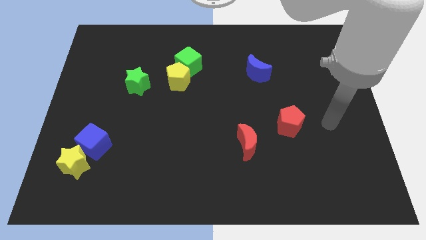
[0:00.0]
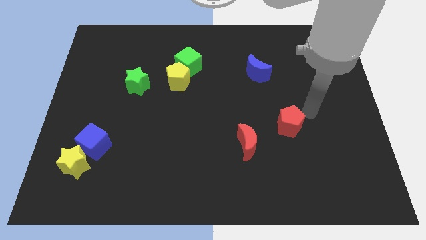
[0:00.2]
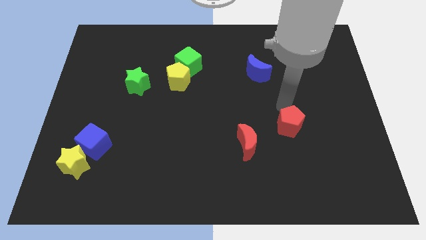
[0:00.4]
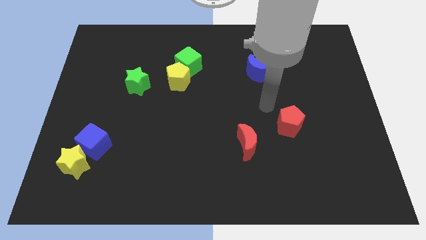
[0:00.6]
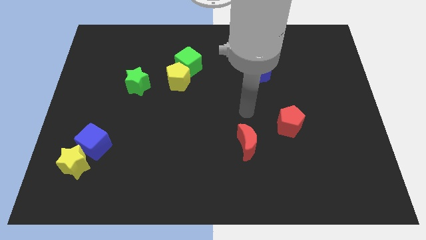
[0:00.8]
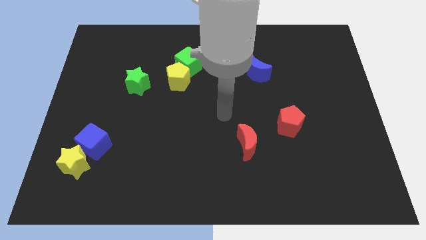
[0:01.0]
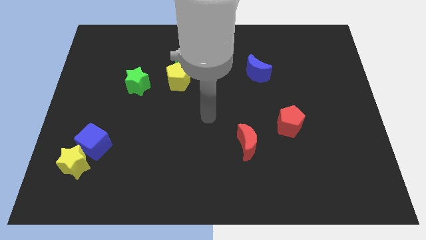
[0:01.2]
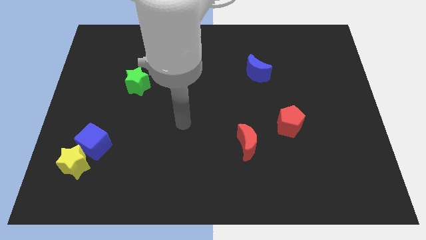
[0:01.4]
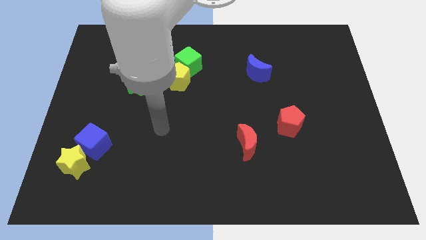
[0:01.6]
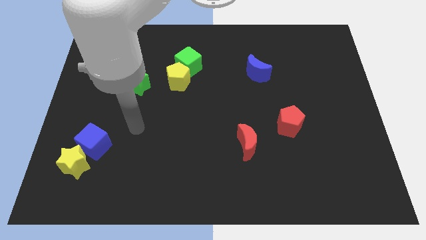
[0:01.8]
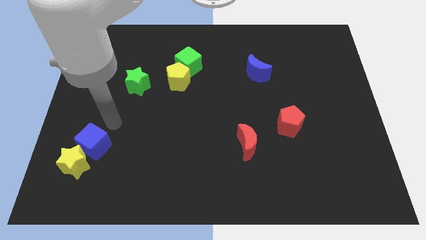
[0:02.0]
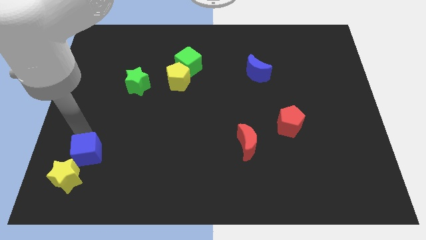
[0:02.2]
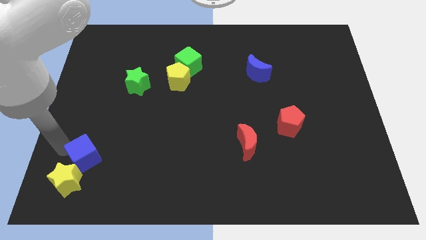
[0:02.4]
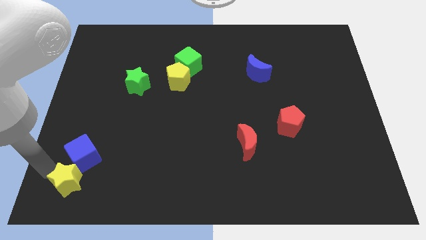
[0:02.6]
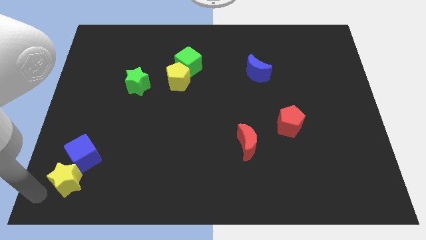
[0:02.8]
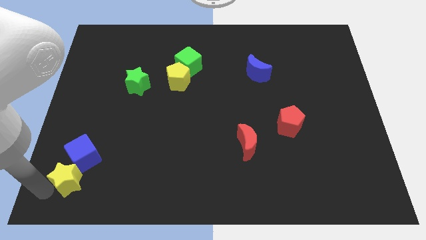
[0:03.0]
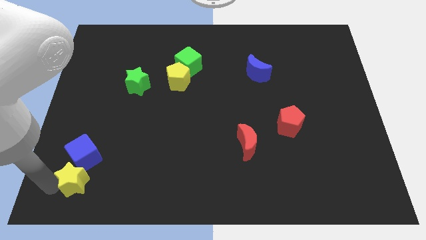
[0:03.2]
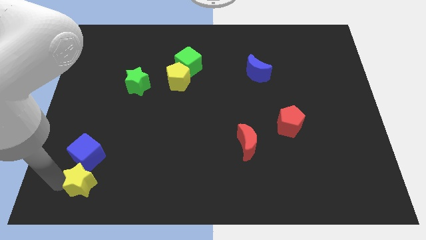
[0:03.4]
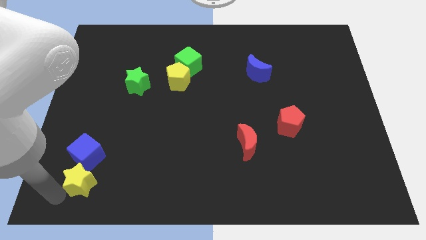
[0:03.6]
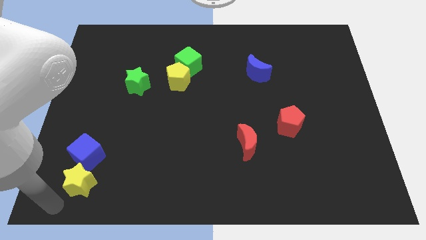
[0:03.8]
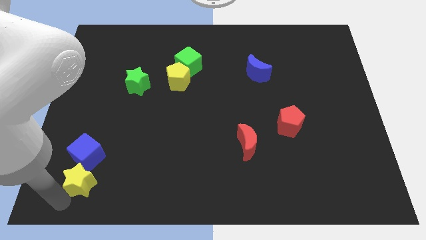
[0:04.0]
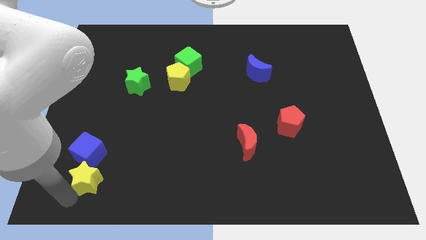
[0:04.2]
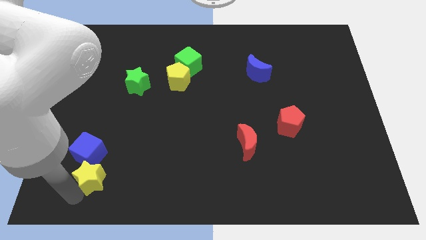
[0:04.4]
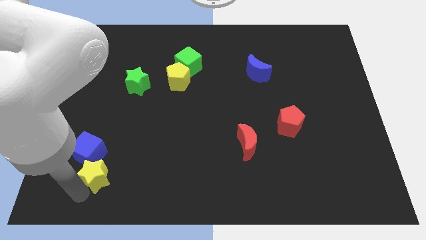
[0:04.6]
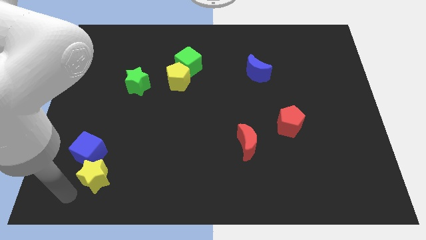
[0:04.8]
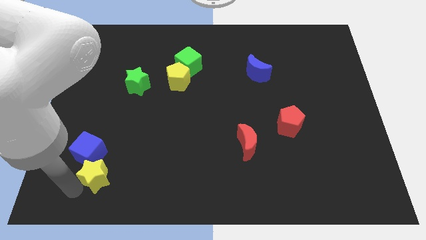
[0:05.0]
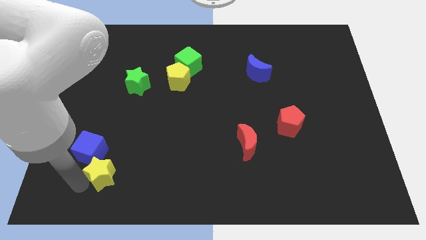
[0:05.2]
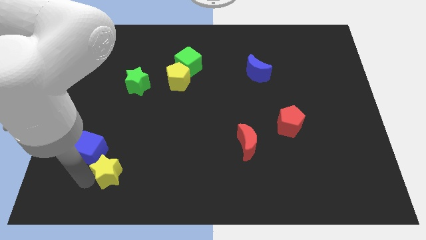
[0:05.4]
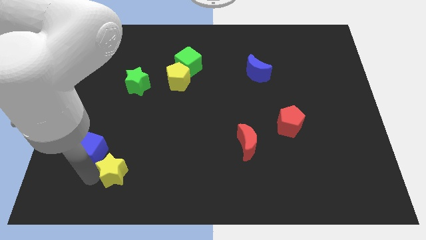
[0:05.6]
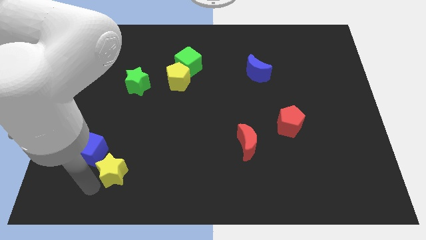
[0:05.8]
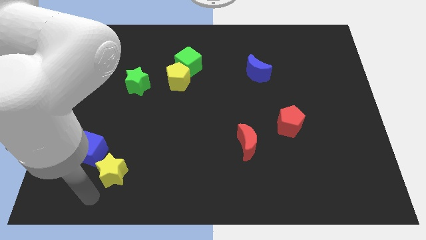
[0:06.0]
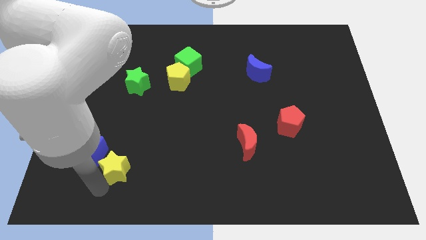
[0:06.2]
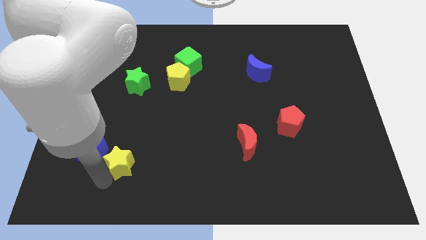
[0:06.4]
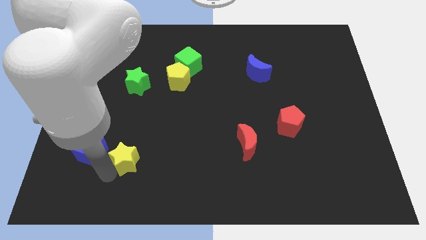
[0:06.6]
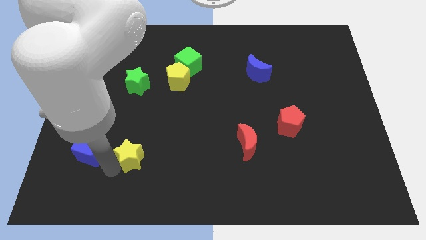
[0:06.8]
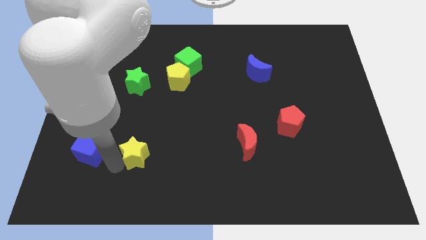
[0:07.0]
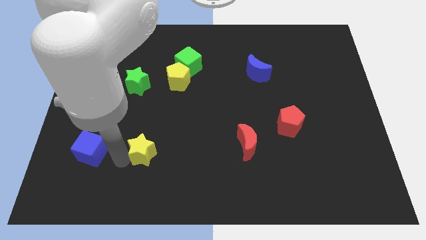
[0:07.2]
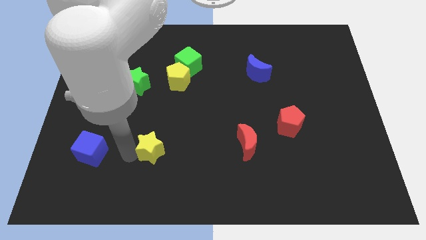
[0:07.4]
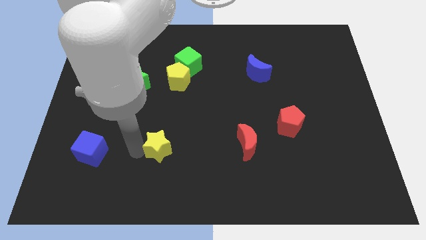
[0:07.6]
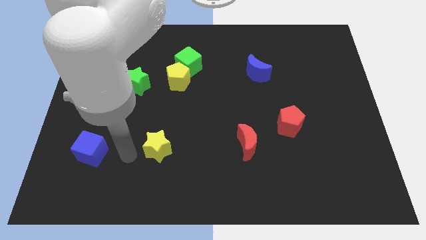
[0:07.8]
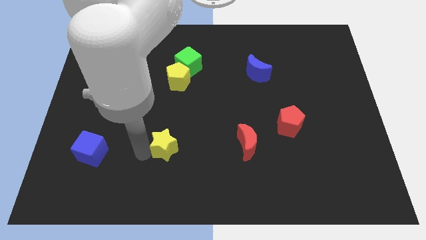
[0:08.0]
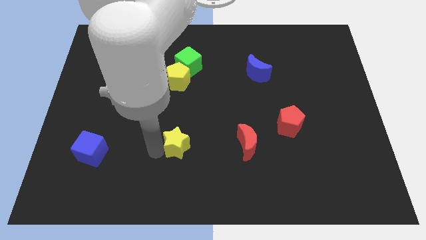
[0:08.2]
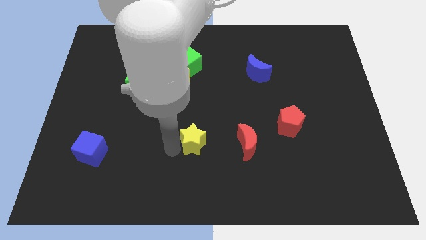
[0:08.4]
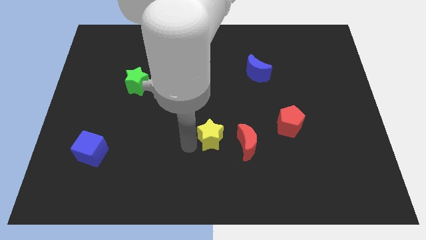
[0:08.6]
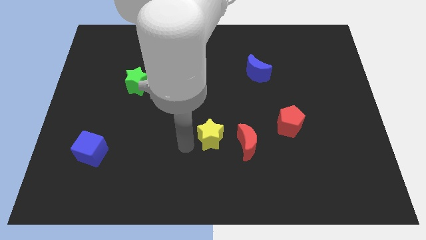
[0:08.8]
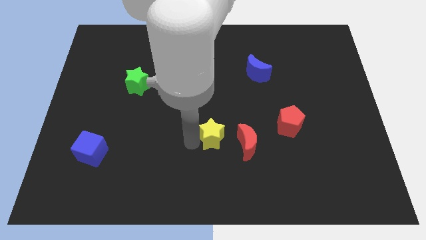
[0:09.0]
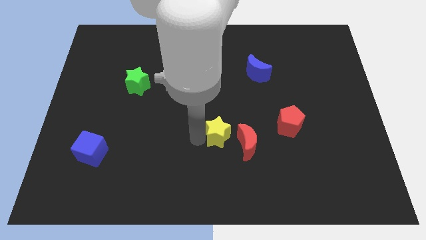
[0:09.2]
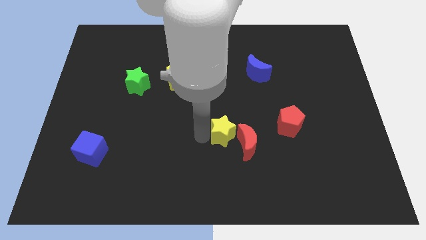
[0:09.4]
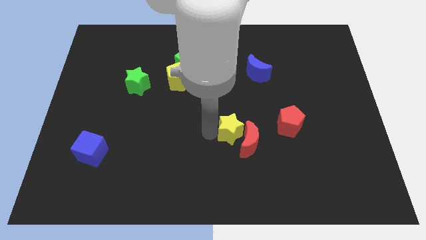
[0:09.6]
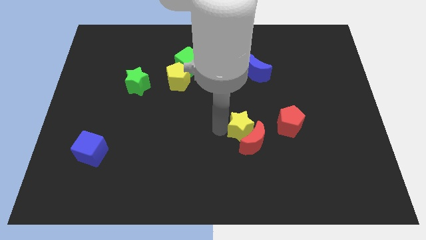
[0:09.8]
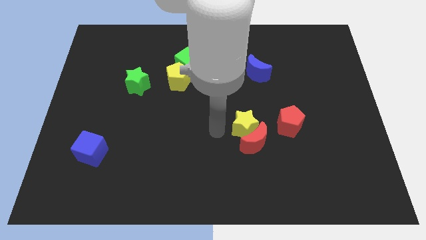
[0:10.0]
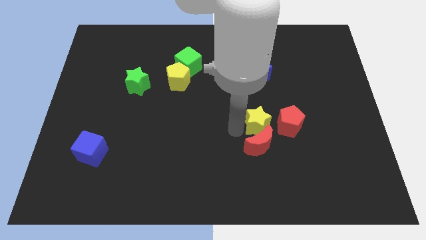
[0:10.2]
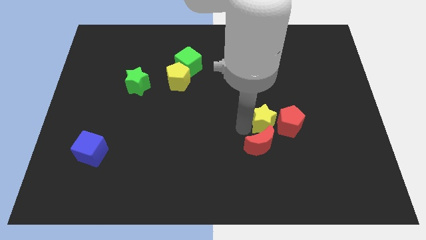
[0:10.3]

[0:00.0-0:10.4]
slide the yellow star close to the red pentagon

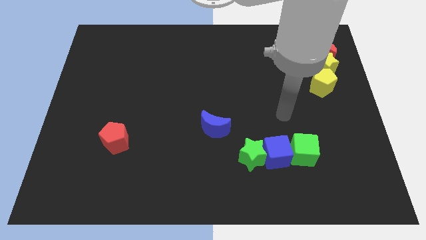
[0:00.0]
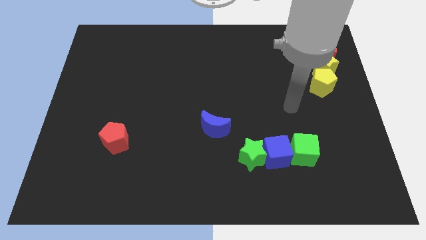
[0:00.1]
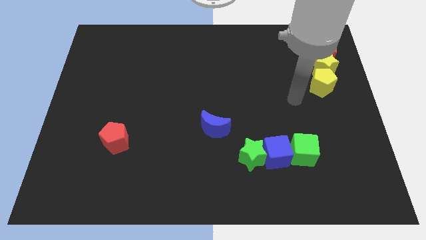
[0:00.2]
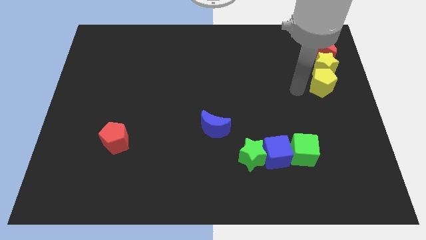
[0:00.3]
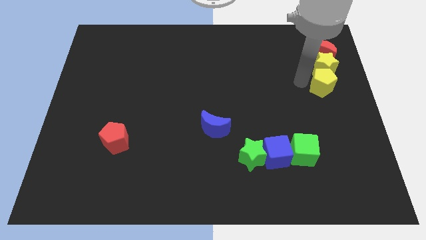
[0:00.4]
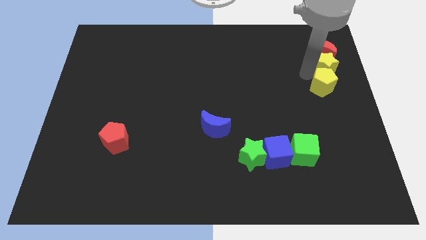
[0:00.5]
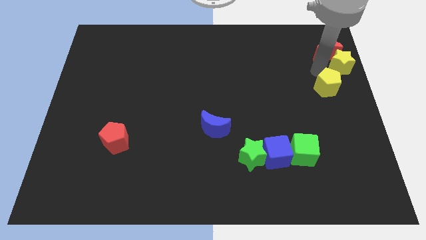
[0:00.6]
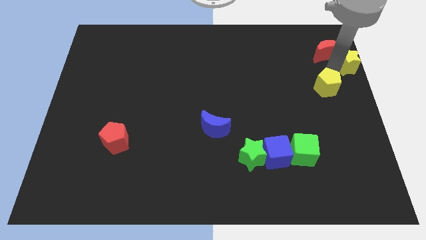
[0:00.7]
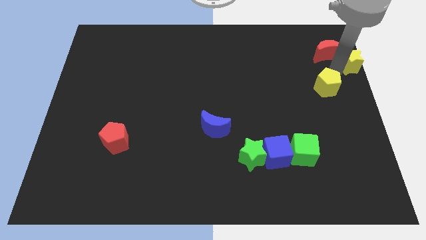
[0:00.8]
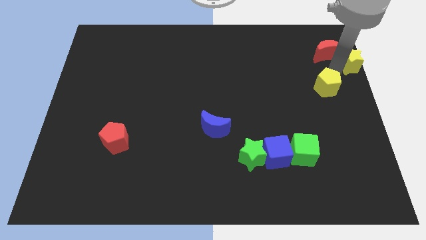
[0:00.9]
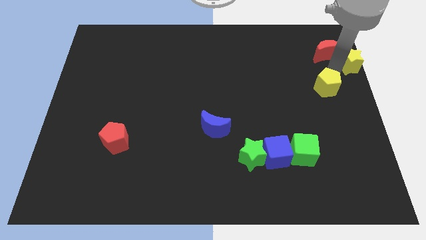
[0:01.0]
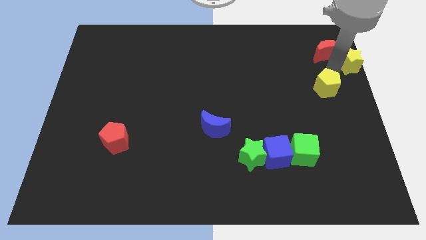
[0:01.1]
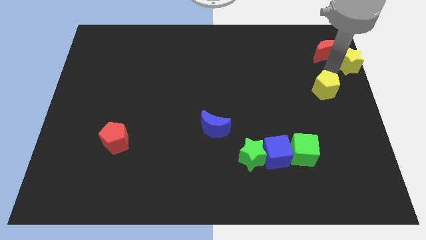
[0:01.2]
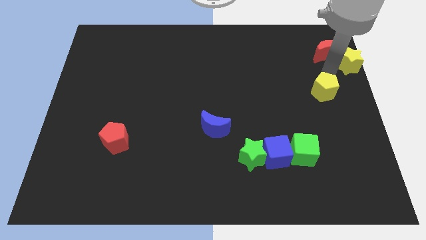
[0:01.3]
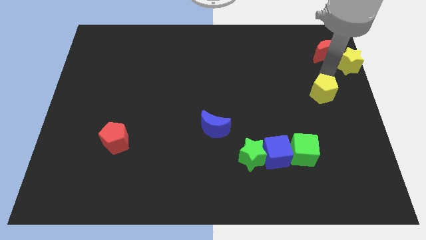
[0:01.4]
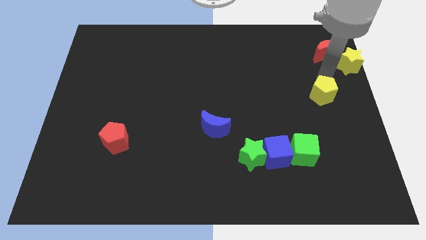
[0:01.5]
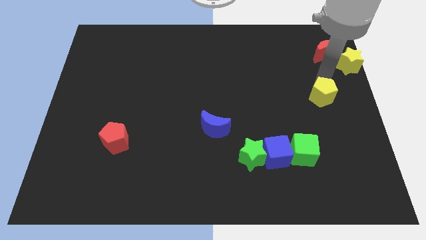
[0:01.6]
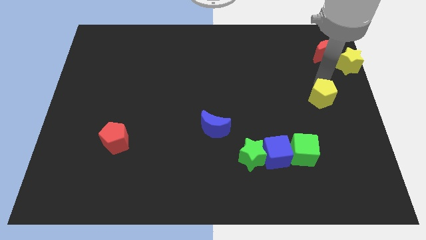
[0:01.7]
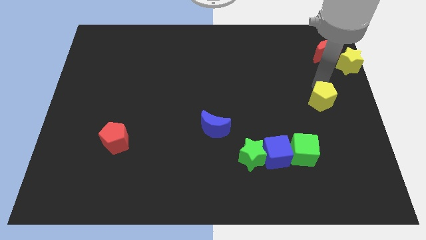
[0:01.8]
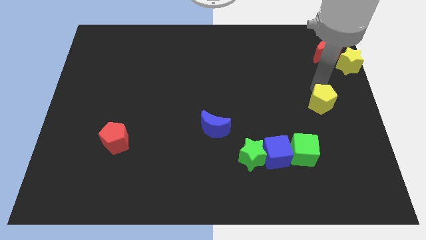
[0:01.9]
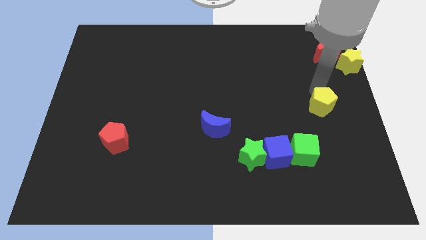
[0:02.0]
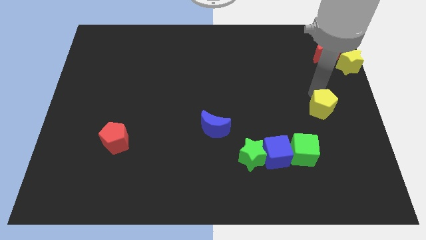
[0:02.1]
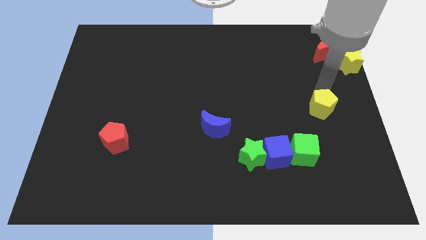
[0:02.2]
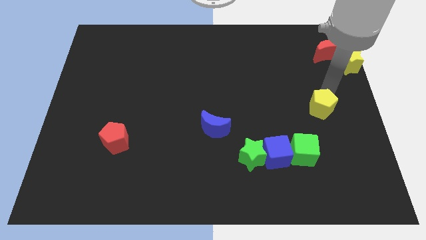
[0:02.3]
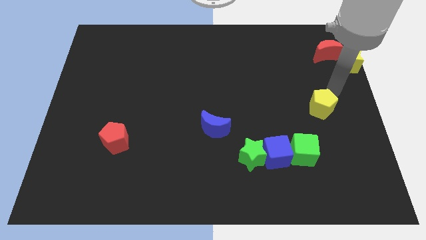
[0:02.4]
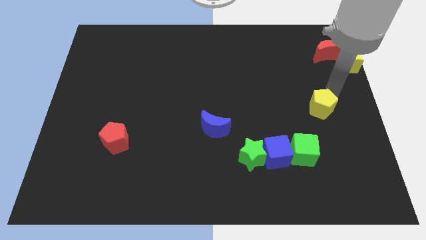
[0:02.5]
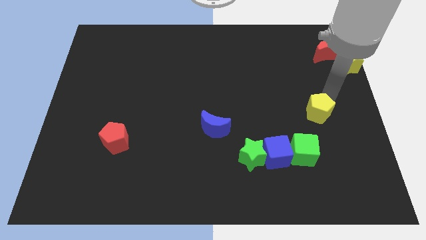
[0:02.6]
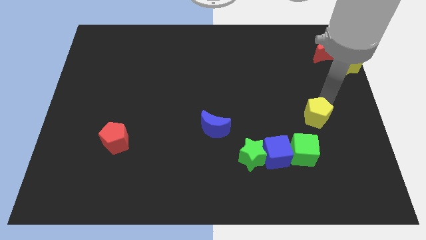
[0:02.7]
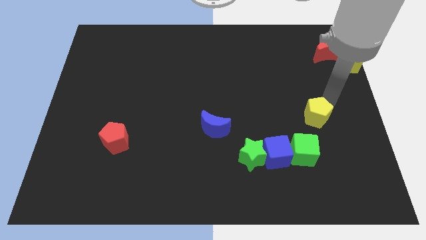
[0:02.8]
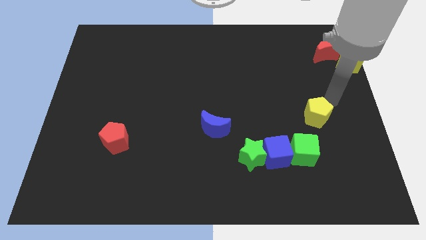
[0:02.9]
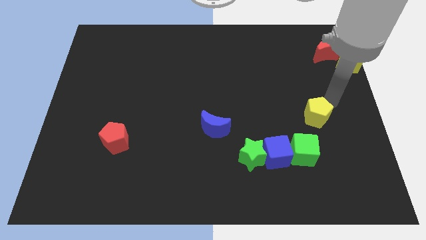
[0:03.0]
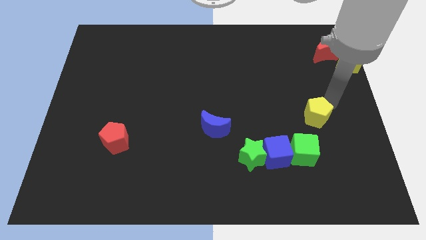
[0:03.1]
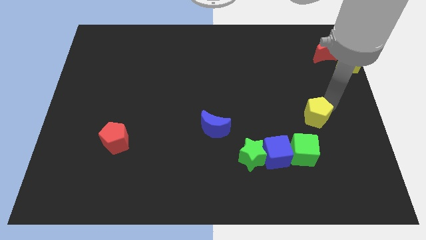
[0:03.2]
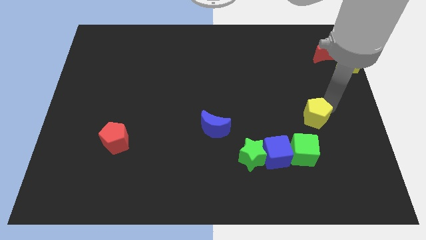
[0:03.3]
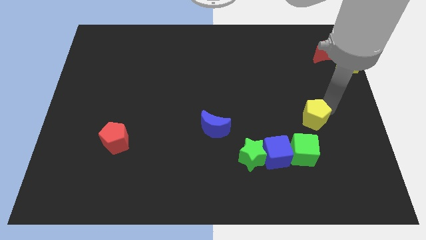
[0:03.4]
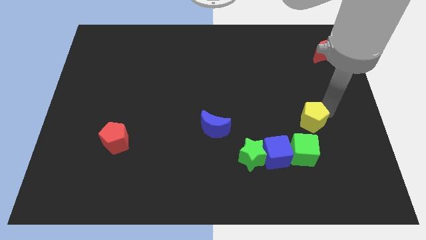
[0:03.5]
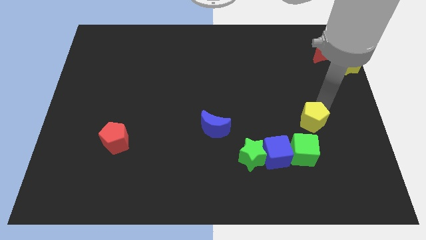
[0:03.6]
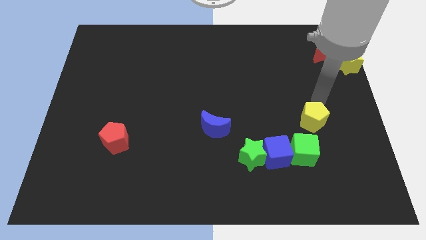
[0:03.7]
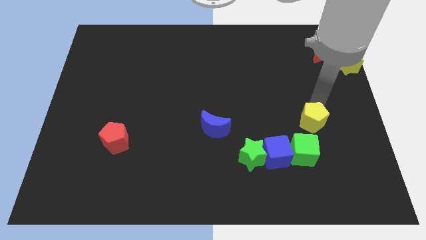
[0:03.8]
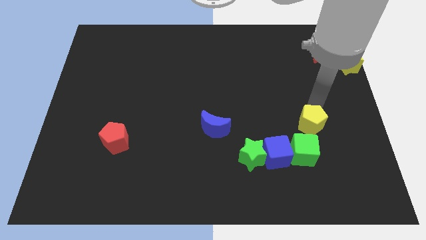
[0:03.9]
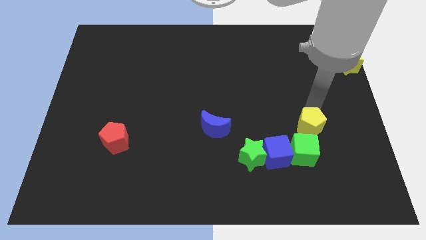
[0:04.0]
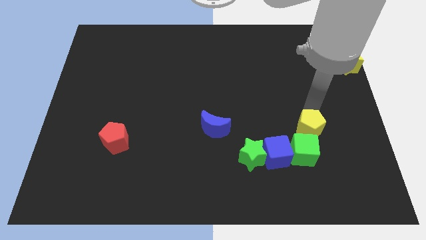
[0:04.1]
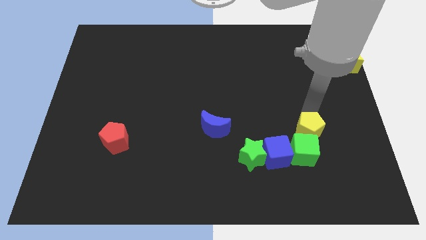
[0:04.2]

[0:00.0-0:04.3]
push the yellow pentagon close to the green cube
